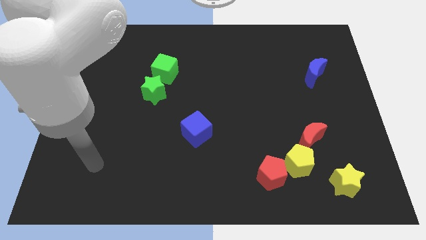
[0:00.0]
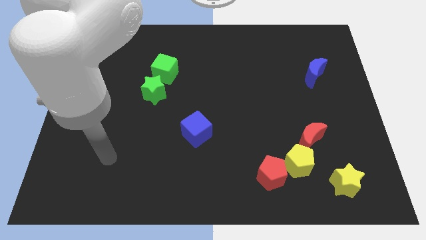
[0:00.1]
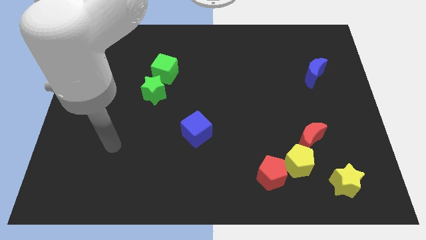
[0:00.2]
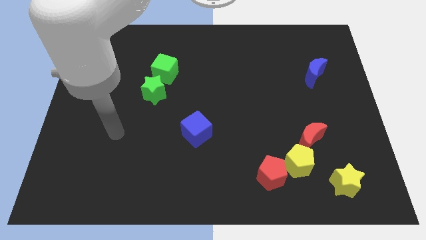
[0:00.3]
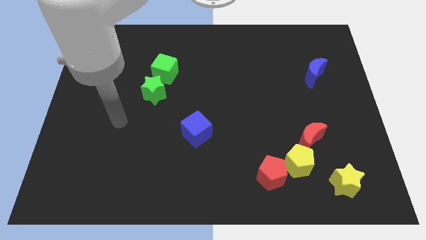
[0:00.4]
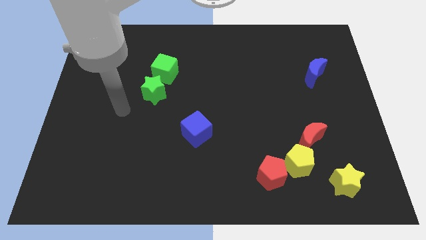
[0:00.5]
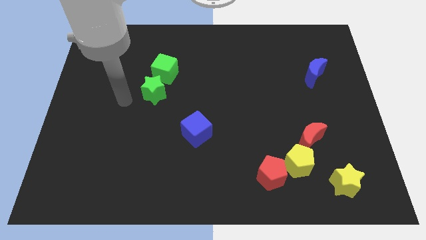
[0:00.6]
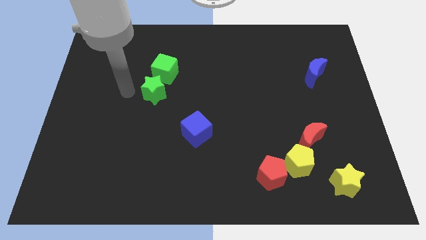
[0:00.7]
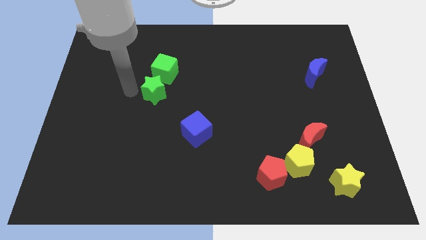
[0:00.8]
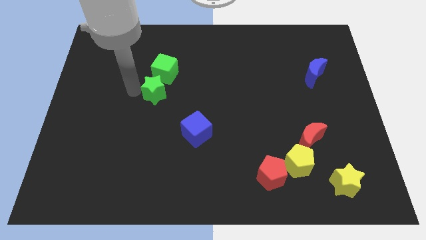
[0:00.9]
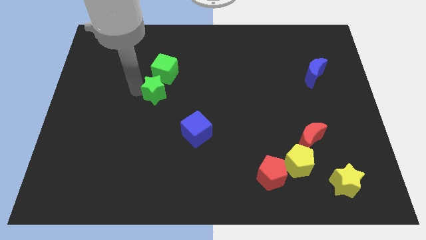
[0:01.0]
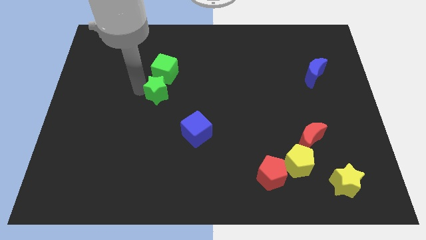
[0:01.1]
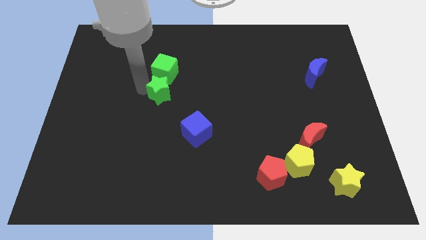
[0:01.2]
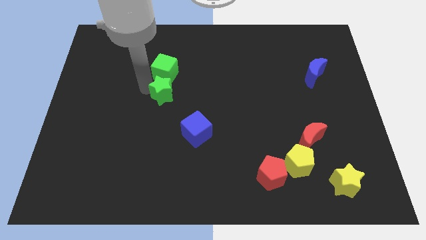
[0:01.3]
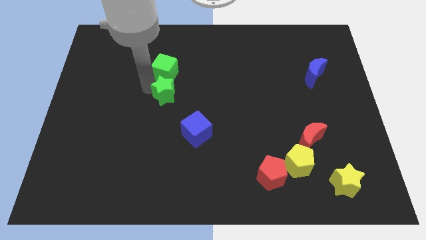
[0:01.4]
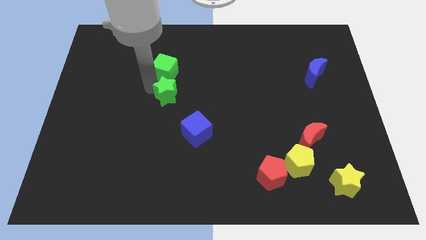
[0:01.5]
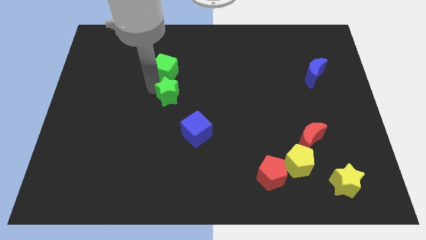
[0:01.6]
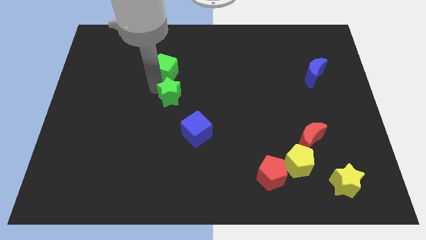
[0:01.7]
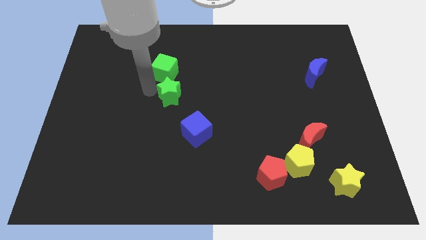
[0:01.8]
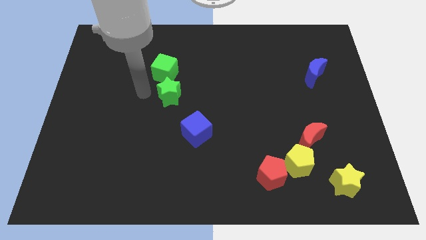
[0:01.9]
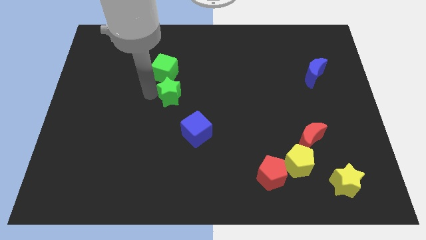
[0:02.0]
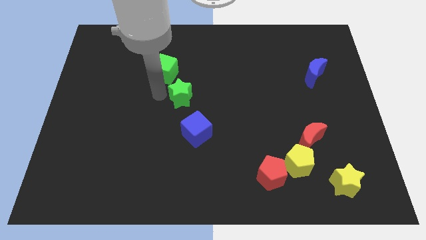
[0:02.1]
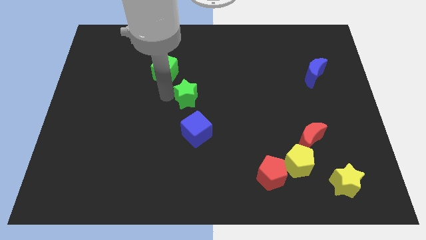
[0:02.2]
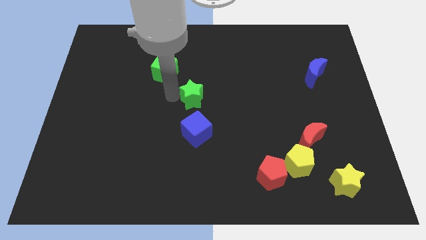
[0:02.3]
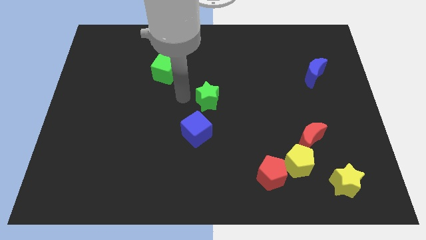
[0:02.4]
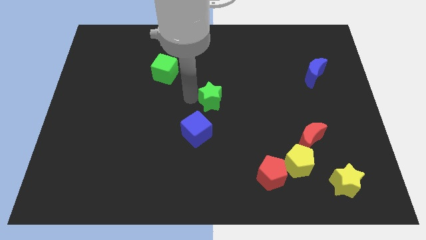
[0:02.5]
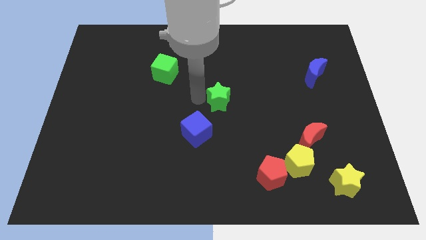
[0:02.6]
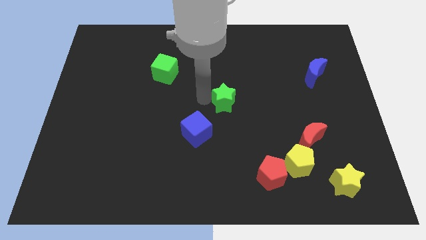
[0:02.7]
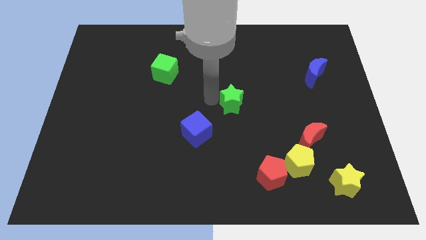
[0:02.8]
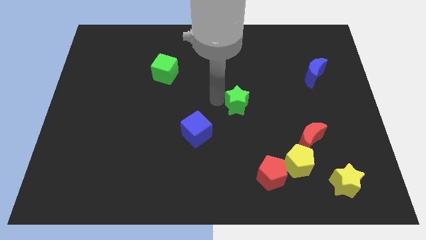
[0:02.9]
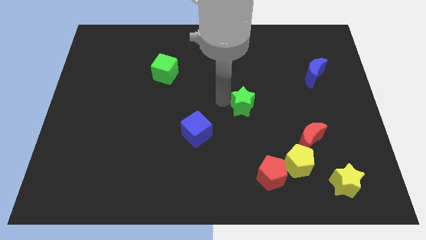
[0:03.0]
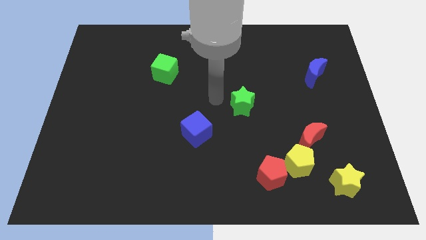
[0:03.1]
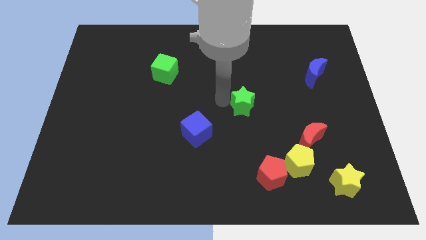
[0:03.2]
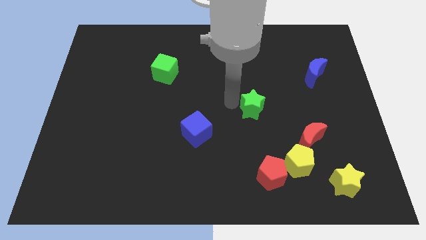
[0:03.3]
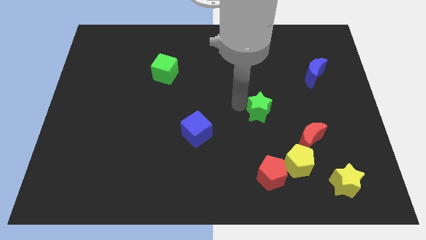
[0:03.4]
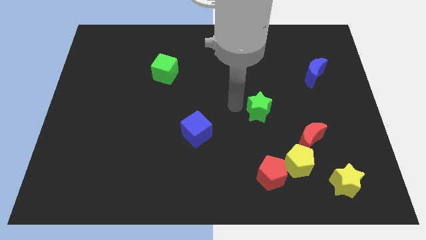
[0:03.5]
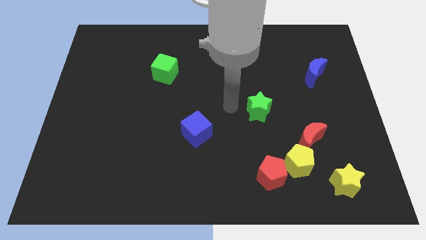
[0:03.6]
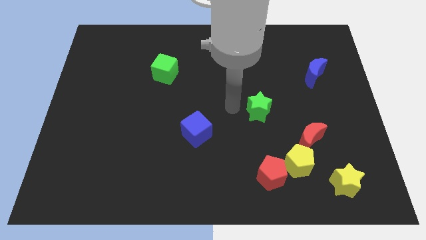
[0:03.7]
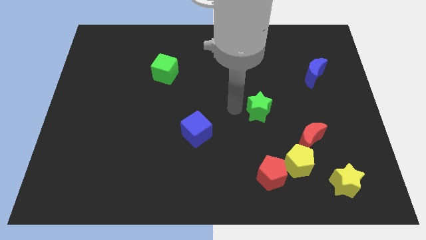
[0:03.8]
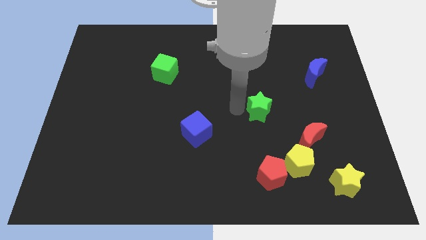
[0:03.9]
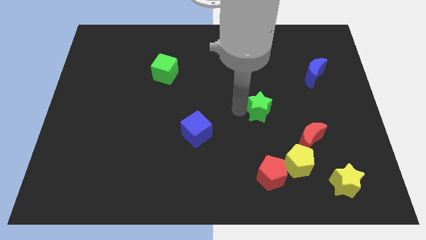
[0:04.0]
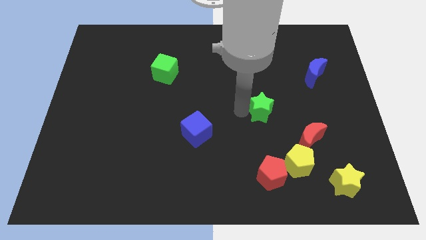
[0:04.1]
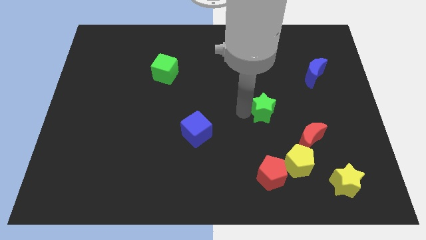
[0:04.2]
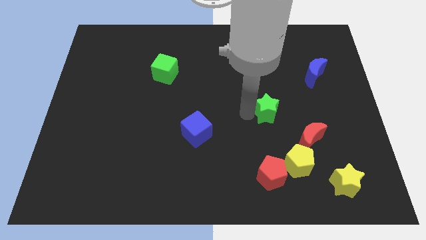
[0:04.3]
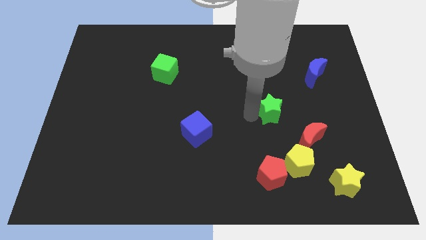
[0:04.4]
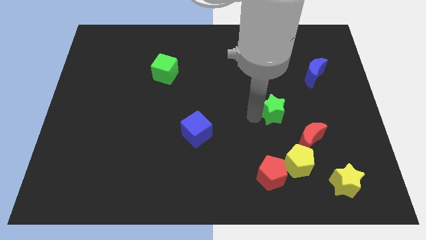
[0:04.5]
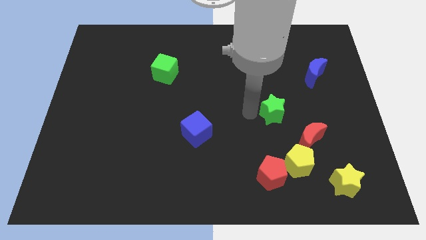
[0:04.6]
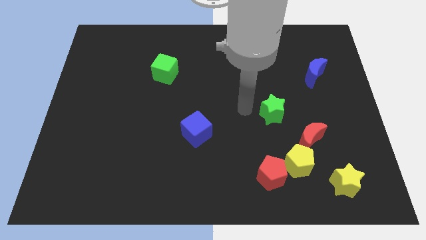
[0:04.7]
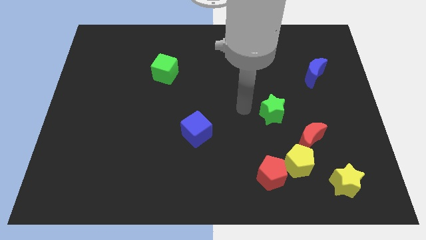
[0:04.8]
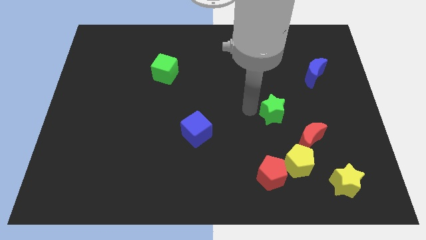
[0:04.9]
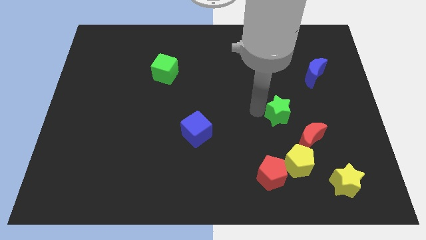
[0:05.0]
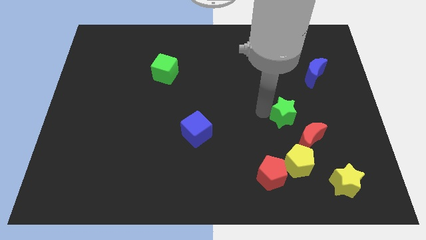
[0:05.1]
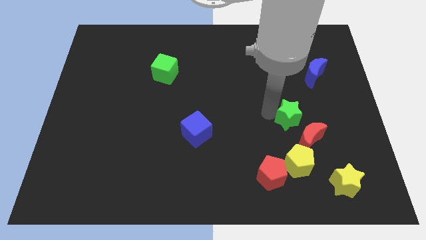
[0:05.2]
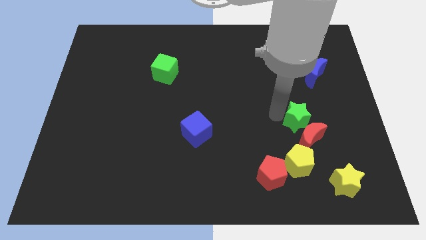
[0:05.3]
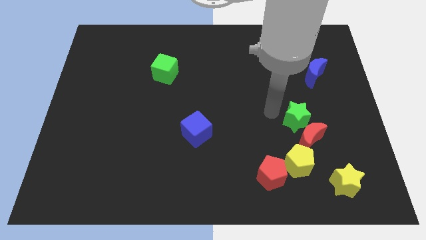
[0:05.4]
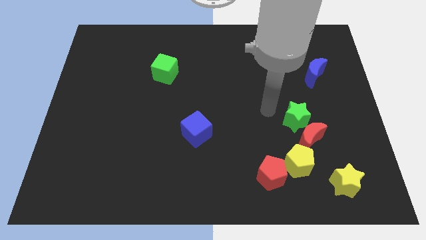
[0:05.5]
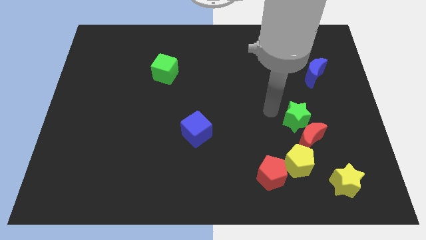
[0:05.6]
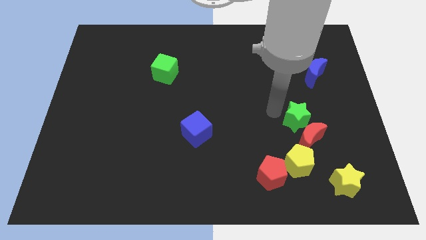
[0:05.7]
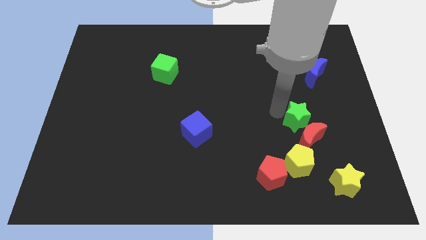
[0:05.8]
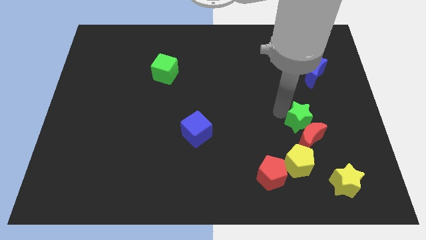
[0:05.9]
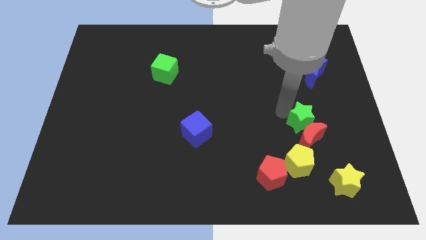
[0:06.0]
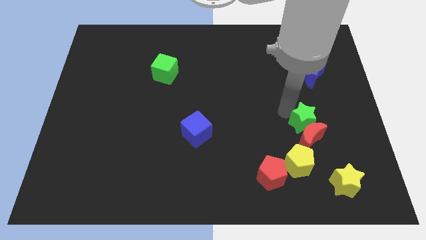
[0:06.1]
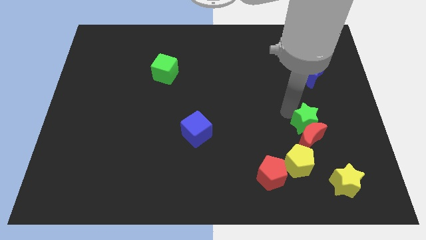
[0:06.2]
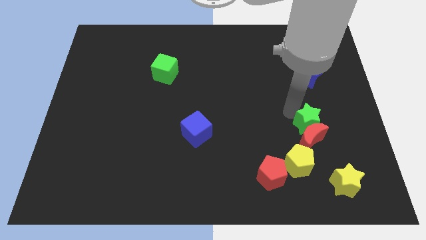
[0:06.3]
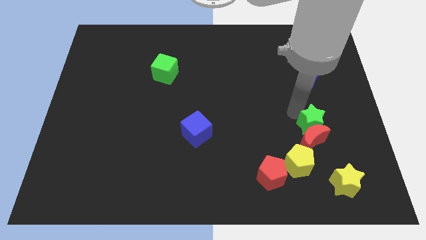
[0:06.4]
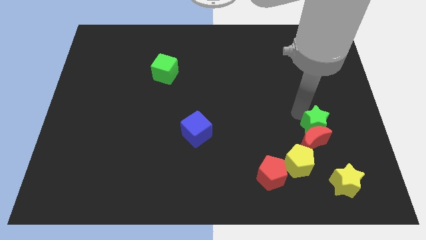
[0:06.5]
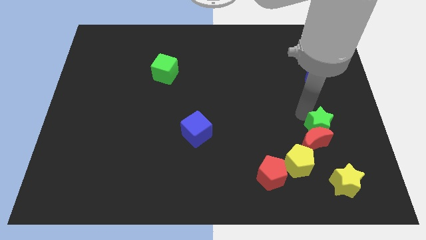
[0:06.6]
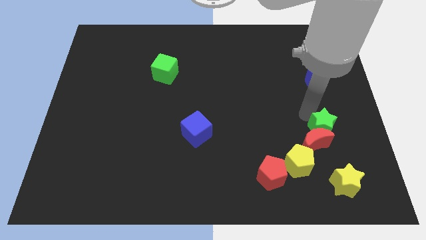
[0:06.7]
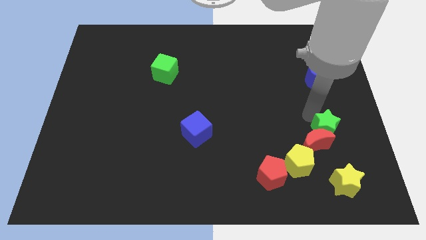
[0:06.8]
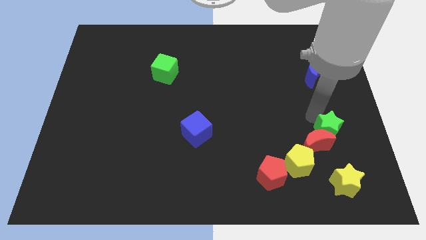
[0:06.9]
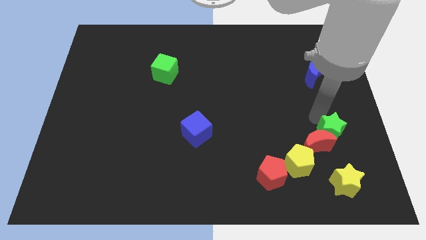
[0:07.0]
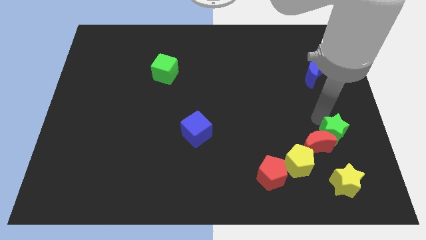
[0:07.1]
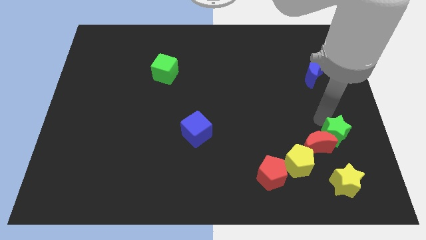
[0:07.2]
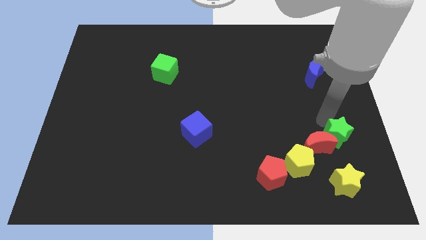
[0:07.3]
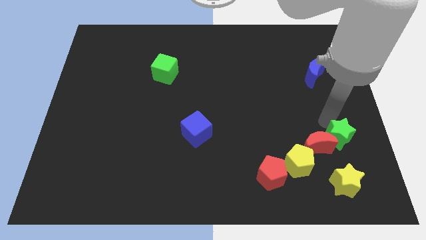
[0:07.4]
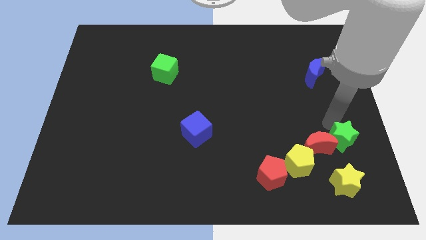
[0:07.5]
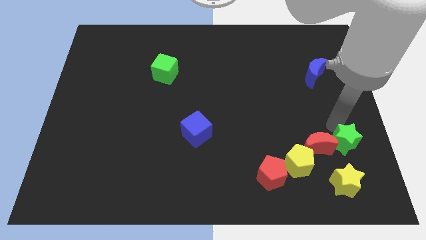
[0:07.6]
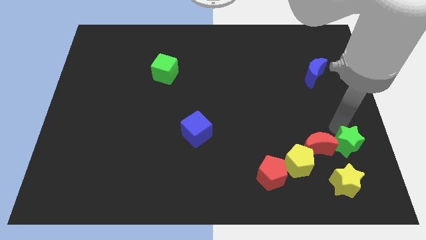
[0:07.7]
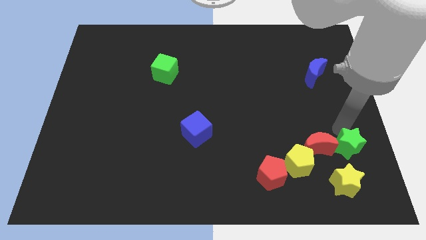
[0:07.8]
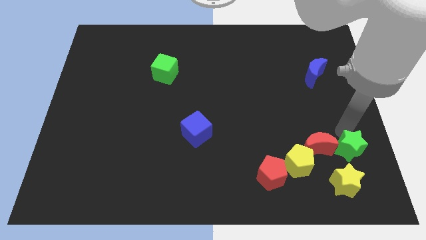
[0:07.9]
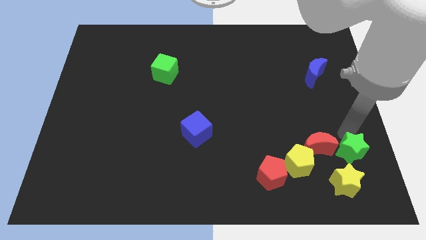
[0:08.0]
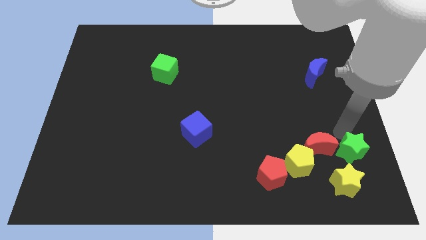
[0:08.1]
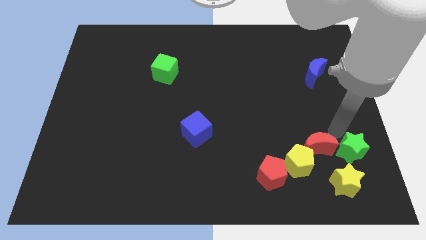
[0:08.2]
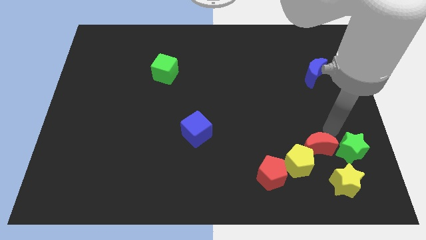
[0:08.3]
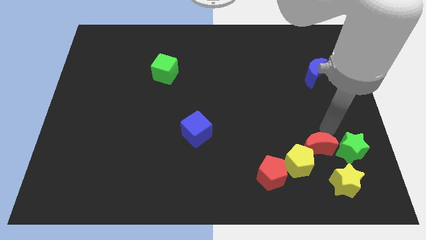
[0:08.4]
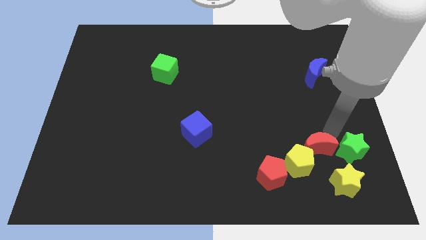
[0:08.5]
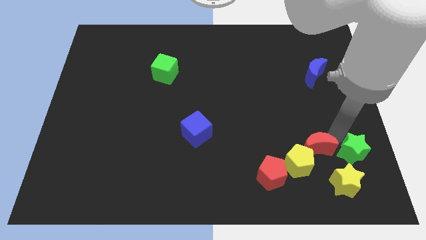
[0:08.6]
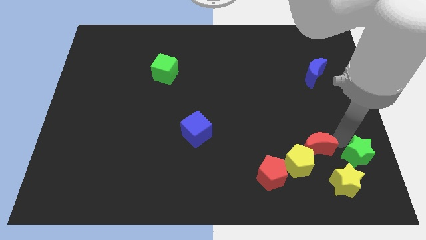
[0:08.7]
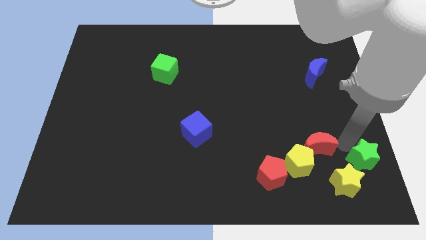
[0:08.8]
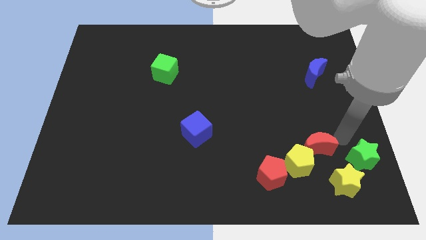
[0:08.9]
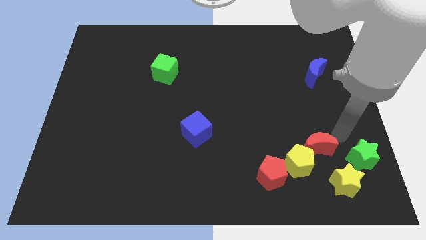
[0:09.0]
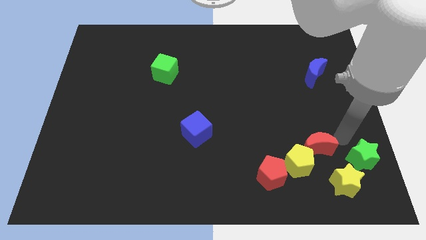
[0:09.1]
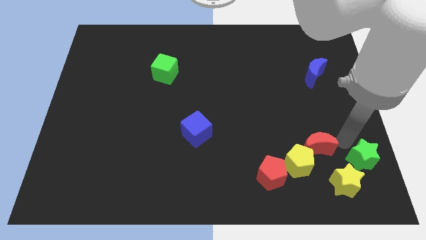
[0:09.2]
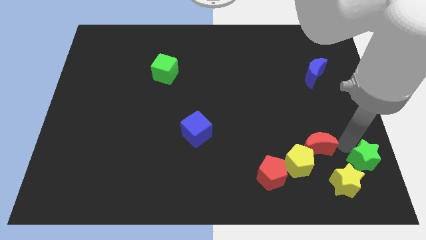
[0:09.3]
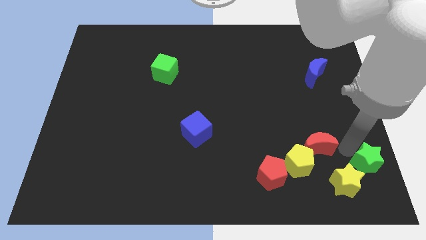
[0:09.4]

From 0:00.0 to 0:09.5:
slide the green star to the bottom right
